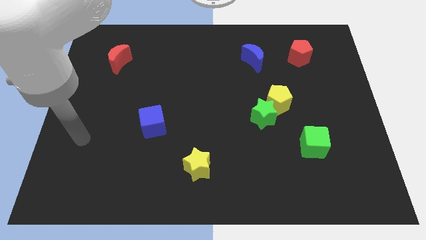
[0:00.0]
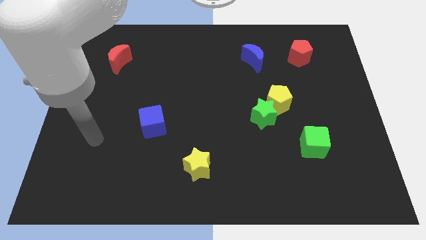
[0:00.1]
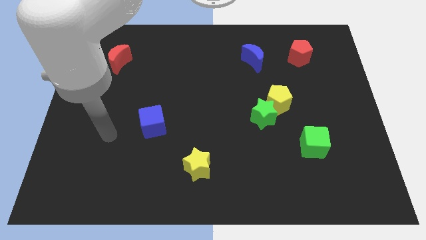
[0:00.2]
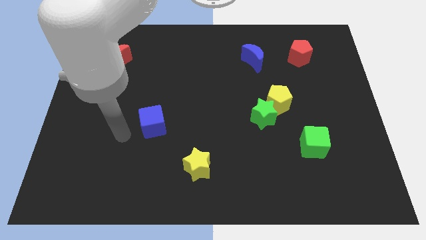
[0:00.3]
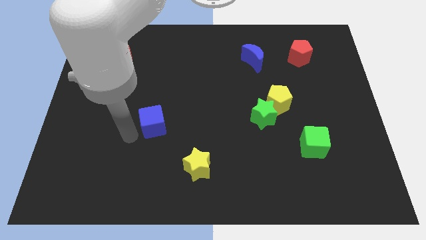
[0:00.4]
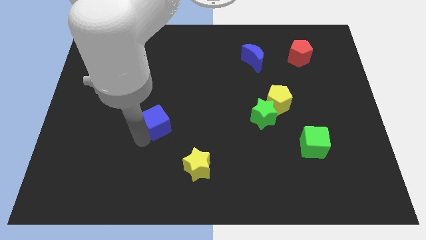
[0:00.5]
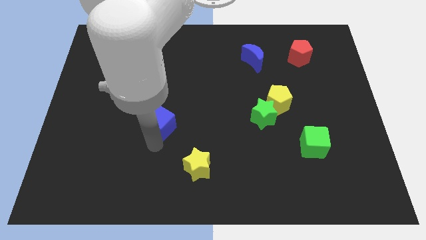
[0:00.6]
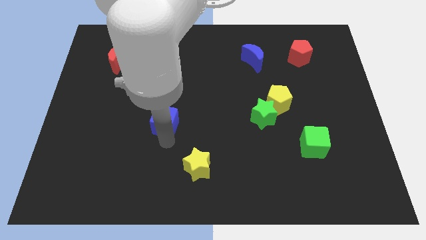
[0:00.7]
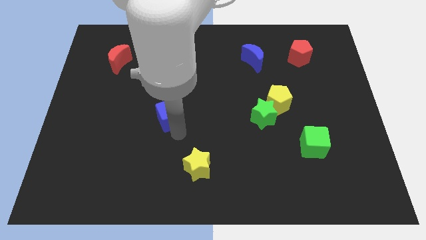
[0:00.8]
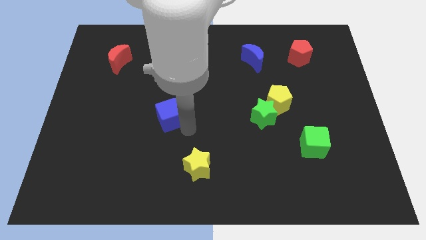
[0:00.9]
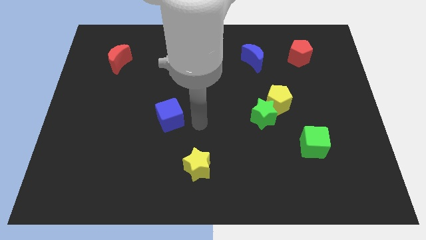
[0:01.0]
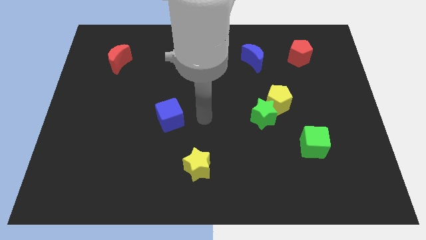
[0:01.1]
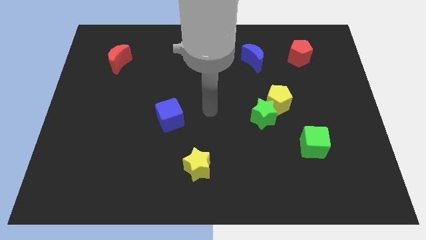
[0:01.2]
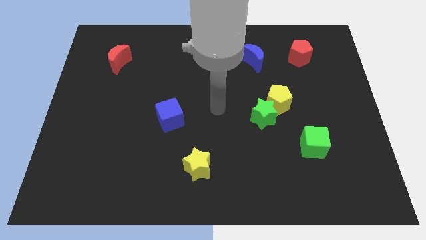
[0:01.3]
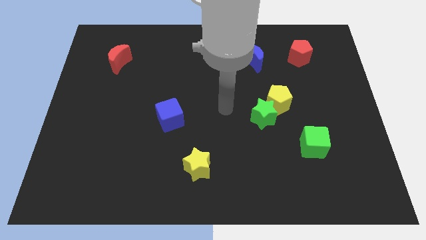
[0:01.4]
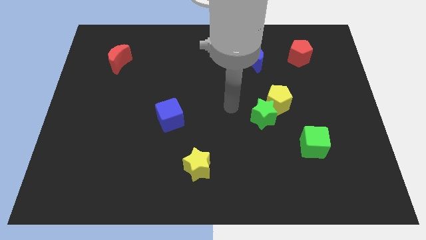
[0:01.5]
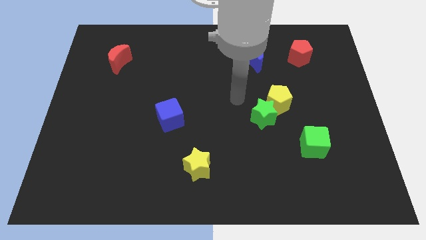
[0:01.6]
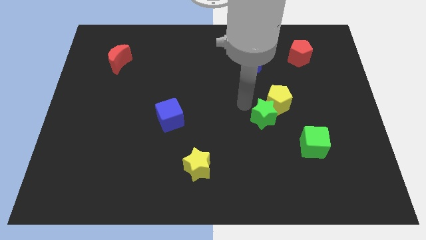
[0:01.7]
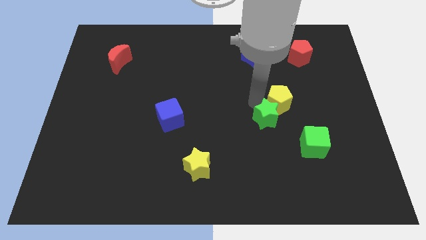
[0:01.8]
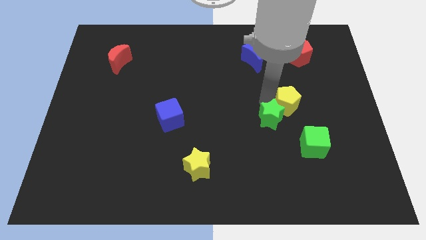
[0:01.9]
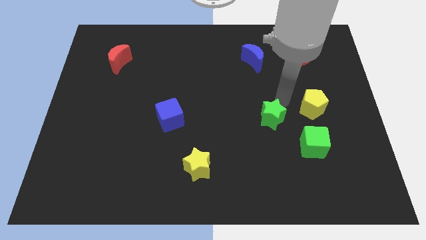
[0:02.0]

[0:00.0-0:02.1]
separate the green star from the yellow pentagon

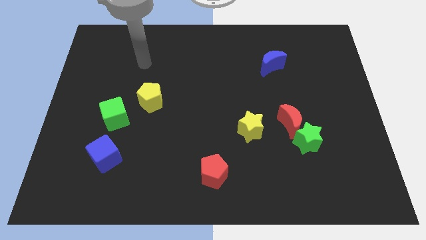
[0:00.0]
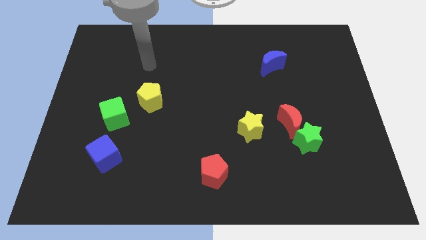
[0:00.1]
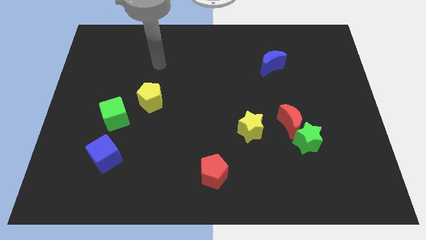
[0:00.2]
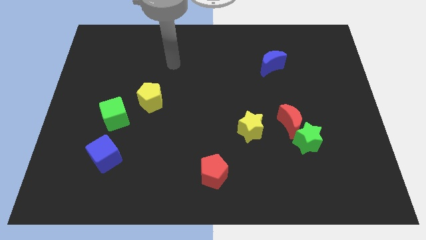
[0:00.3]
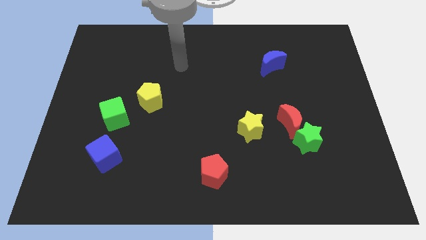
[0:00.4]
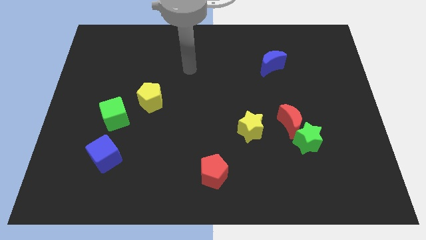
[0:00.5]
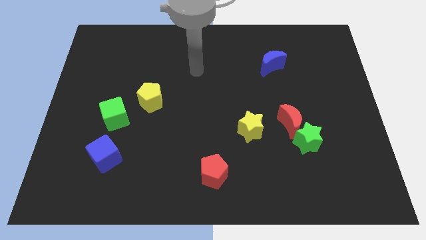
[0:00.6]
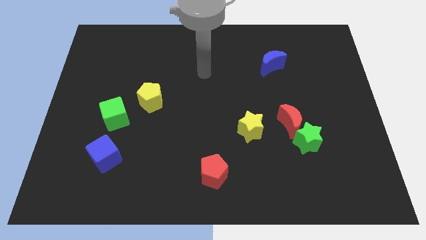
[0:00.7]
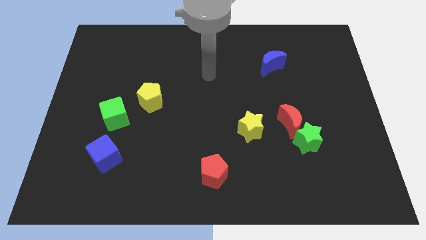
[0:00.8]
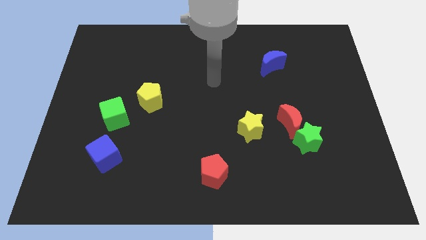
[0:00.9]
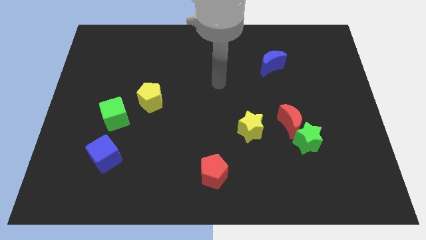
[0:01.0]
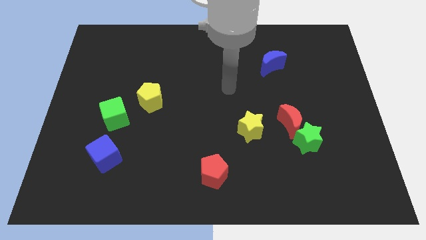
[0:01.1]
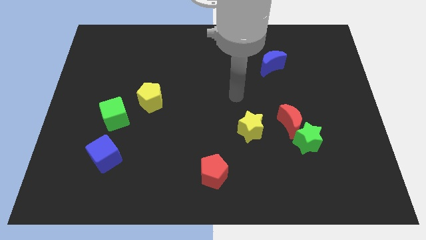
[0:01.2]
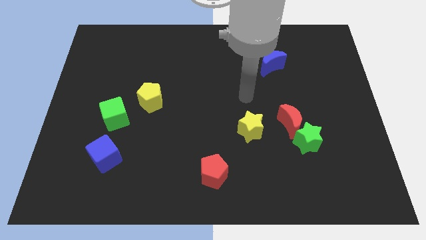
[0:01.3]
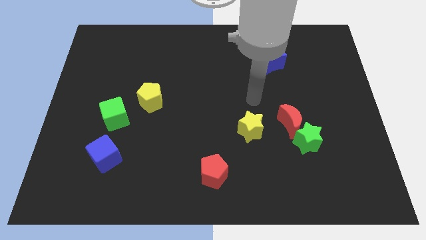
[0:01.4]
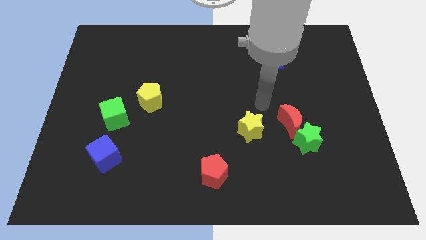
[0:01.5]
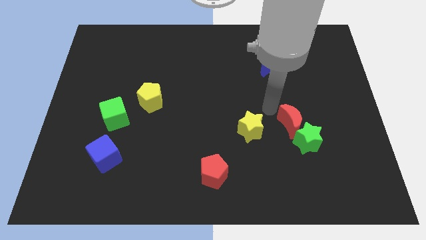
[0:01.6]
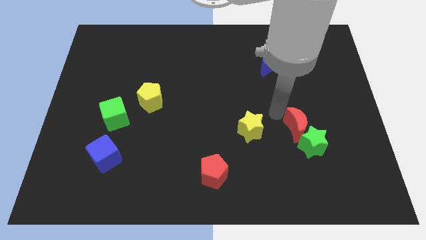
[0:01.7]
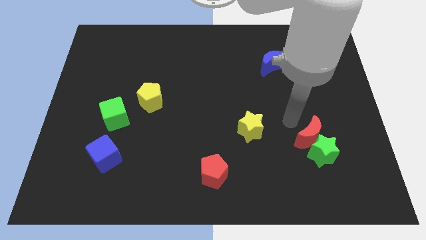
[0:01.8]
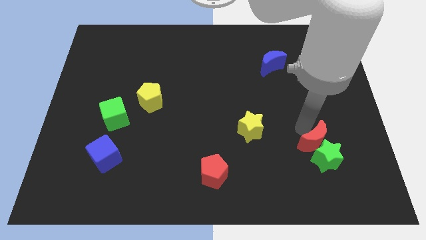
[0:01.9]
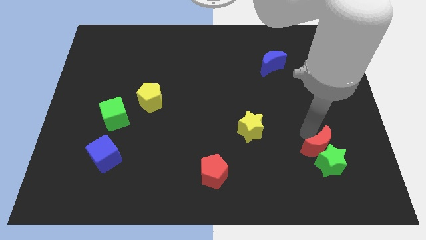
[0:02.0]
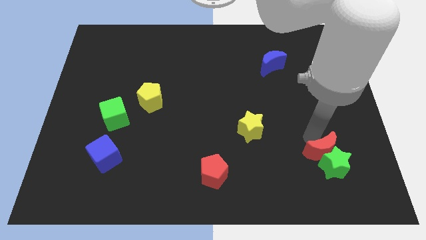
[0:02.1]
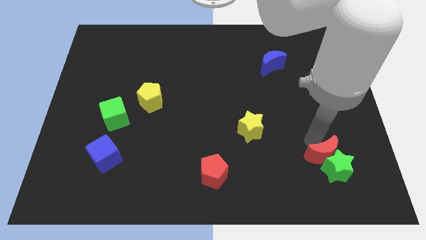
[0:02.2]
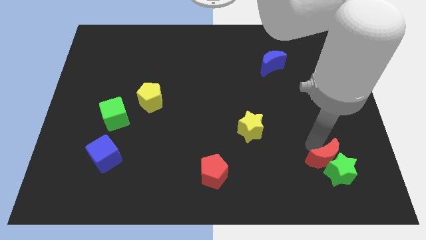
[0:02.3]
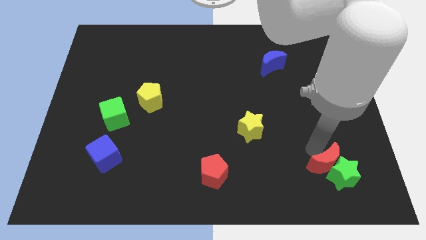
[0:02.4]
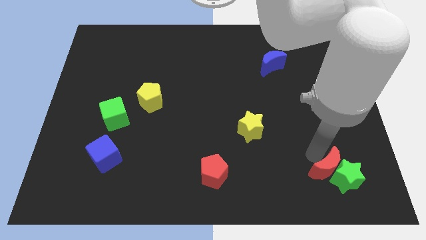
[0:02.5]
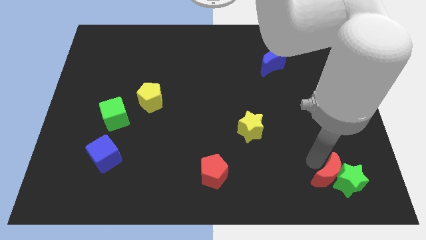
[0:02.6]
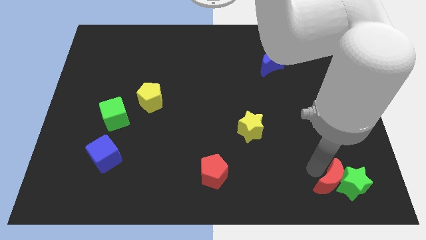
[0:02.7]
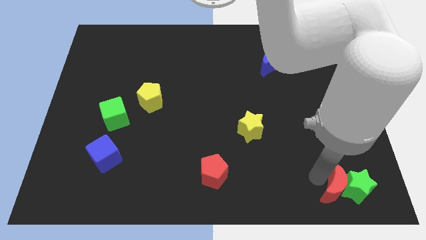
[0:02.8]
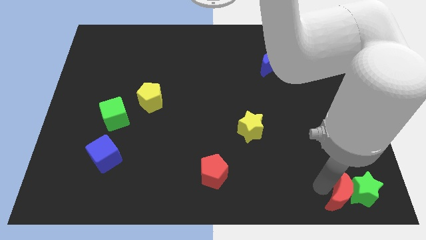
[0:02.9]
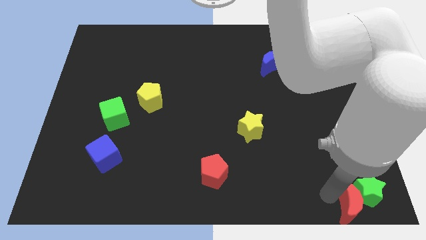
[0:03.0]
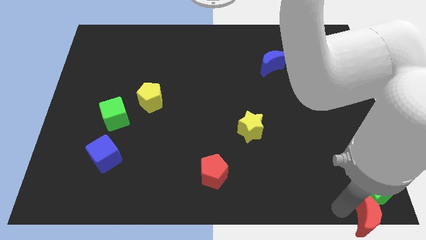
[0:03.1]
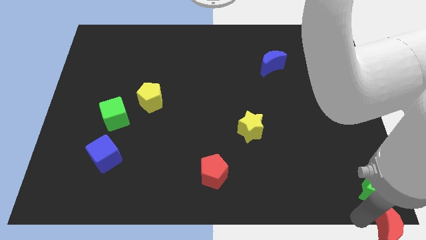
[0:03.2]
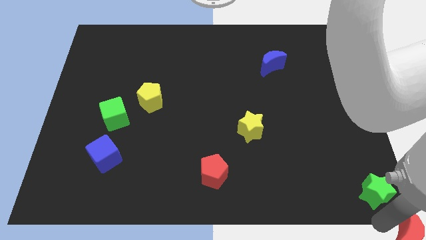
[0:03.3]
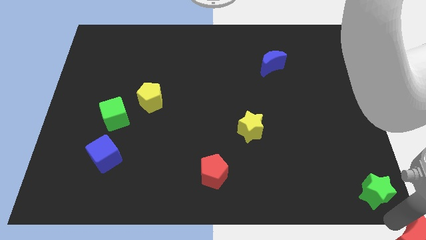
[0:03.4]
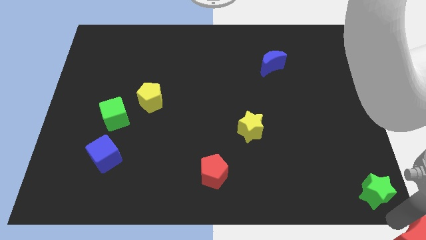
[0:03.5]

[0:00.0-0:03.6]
move the green star away from the red moon

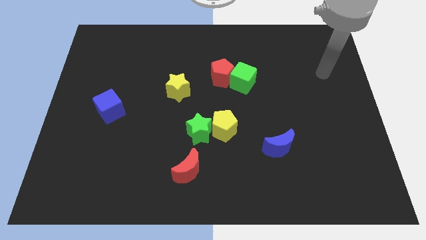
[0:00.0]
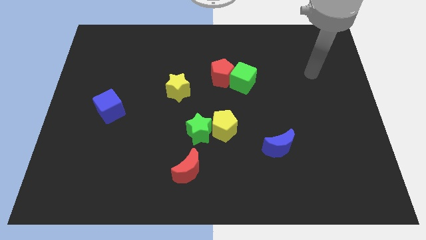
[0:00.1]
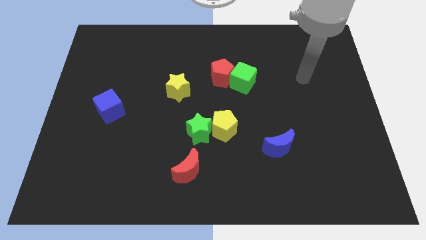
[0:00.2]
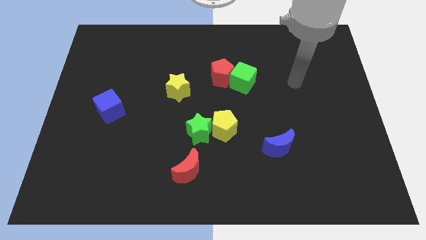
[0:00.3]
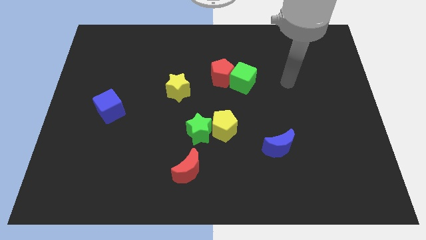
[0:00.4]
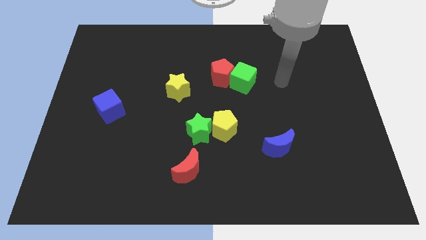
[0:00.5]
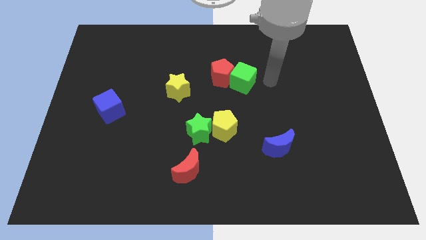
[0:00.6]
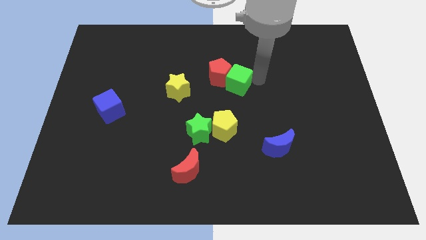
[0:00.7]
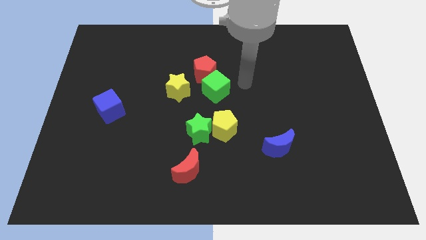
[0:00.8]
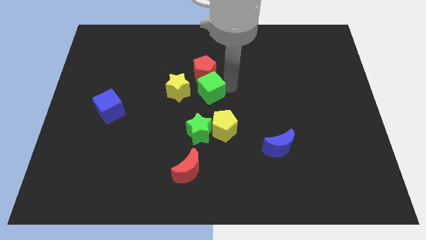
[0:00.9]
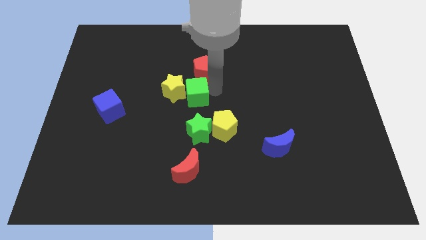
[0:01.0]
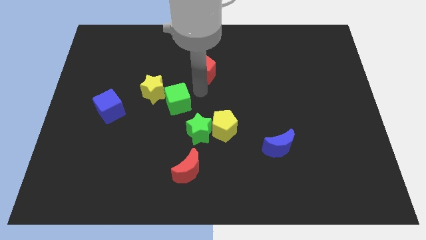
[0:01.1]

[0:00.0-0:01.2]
move the red pentagon away from the green cube

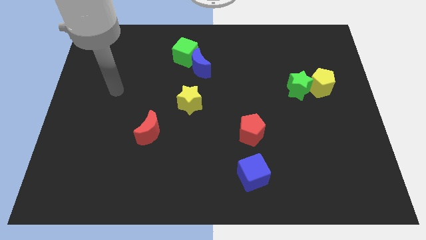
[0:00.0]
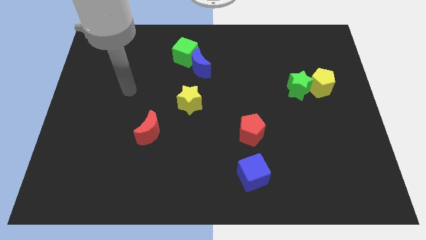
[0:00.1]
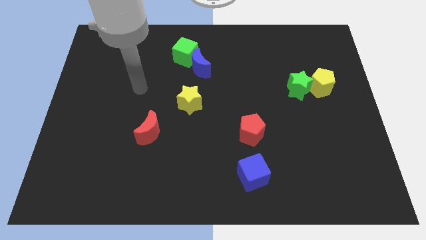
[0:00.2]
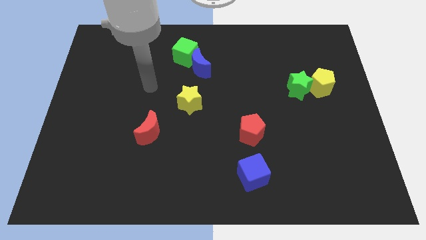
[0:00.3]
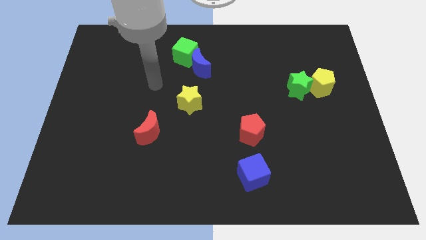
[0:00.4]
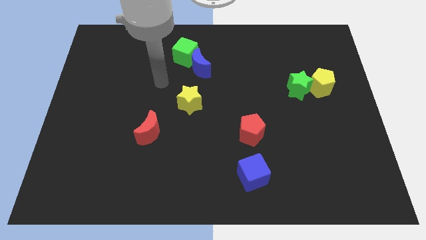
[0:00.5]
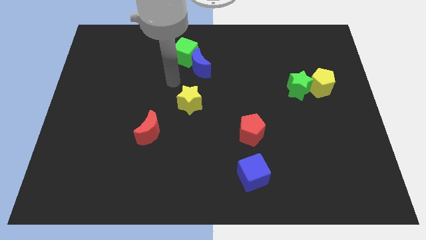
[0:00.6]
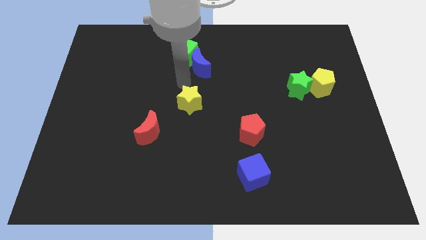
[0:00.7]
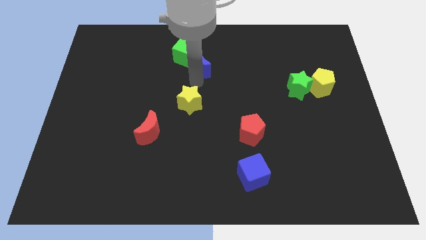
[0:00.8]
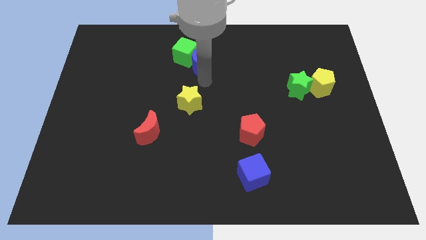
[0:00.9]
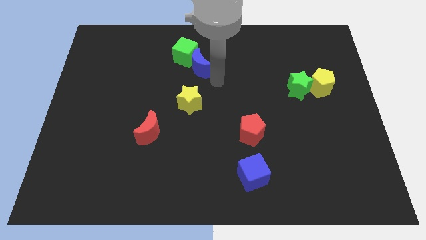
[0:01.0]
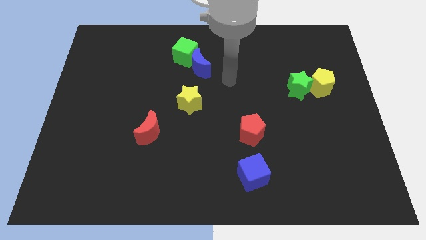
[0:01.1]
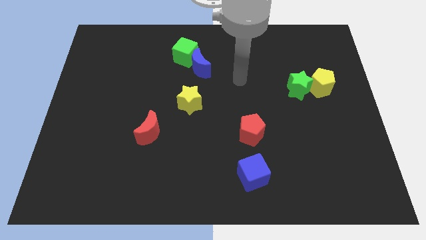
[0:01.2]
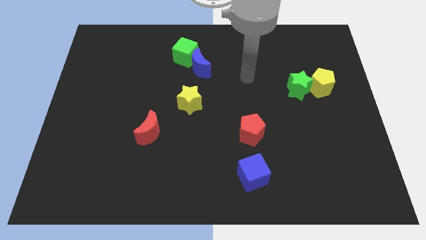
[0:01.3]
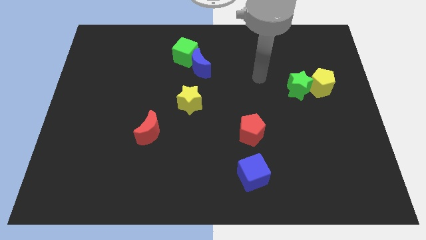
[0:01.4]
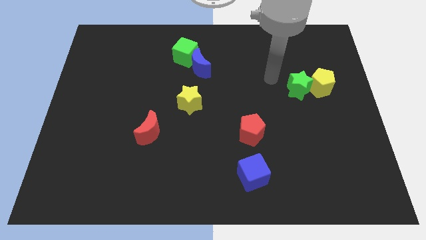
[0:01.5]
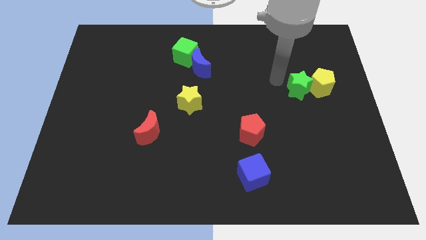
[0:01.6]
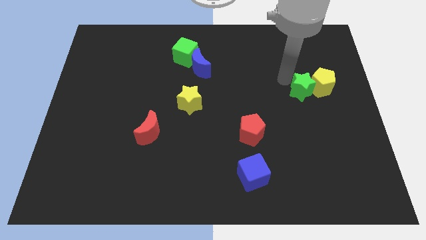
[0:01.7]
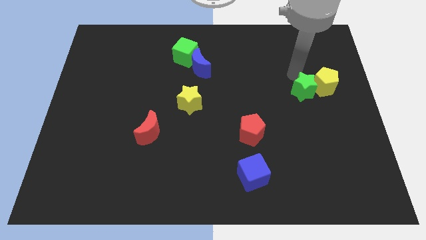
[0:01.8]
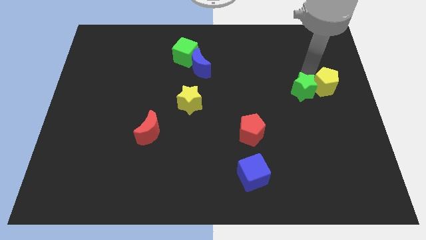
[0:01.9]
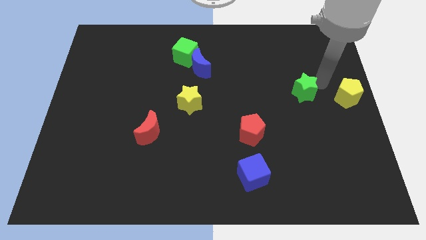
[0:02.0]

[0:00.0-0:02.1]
pull the green star apart from the yellow pentagon

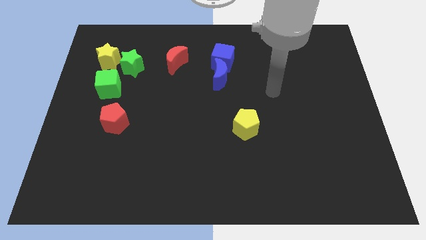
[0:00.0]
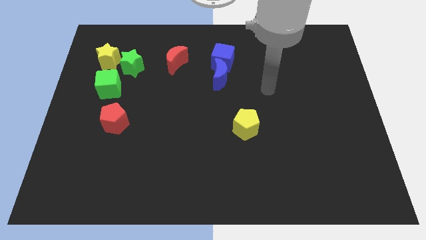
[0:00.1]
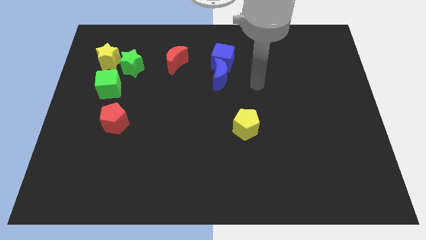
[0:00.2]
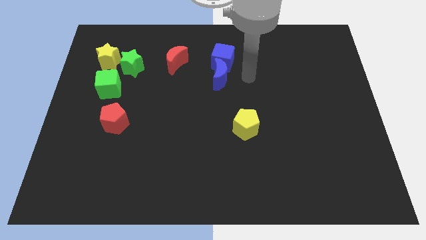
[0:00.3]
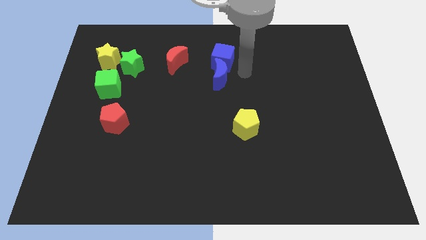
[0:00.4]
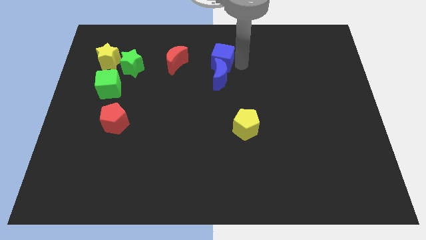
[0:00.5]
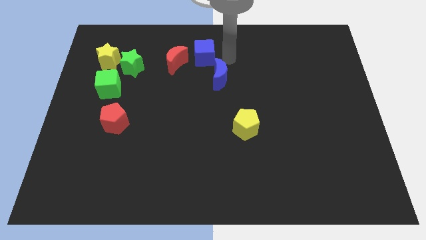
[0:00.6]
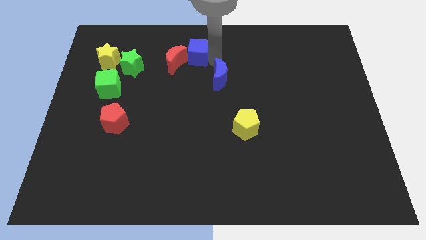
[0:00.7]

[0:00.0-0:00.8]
pull the blue moon apart from the blue cube
